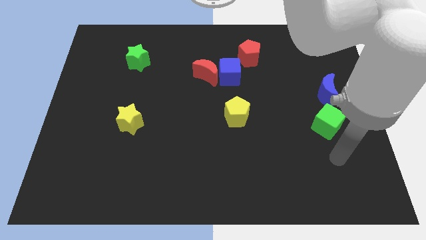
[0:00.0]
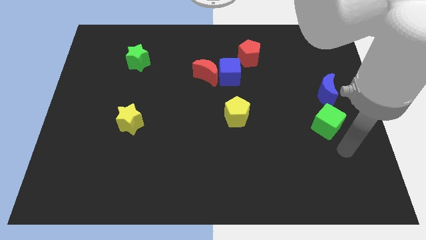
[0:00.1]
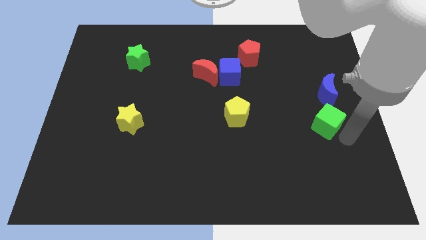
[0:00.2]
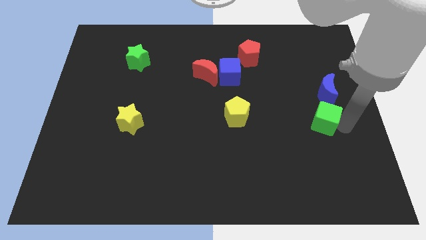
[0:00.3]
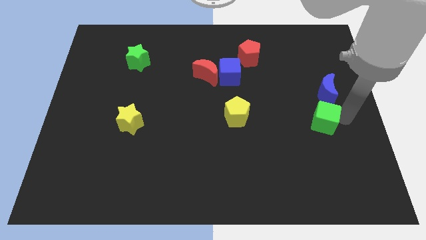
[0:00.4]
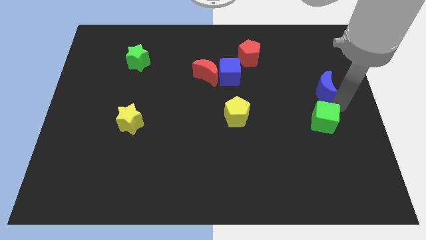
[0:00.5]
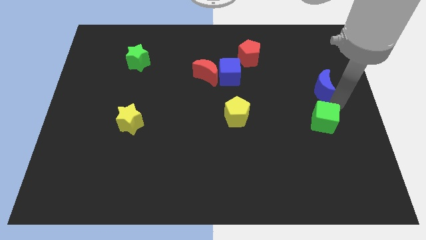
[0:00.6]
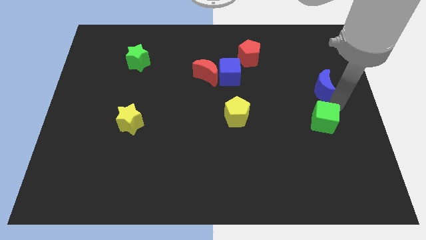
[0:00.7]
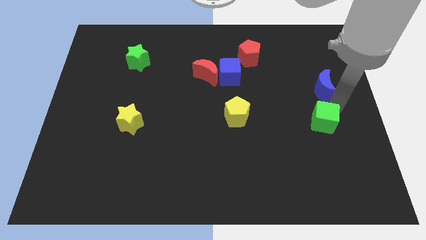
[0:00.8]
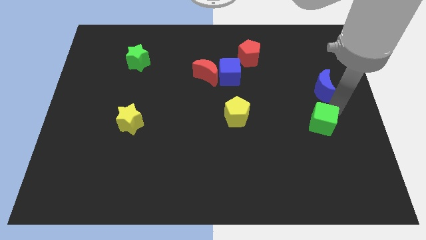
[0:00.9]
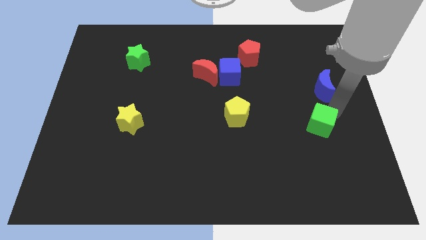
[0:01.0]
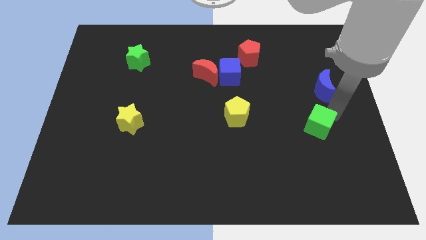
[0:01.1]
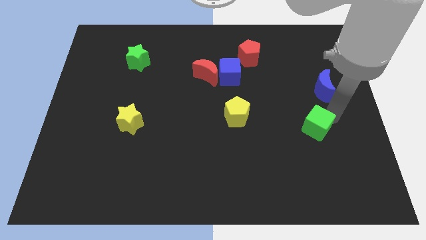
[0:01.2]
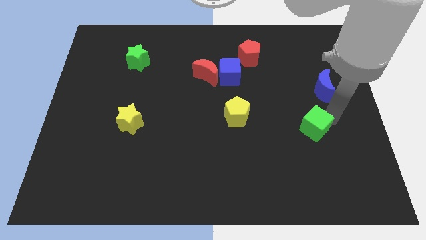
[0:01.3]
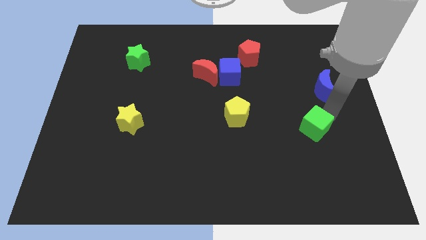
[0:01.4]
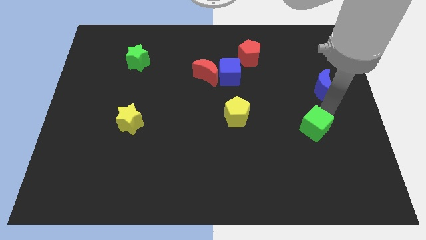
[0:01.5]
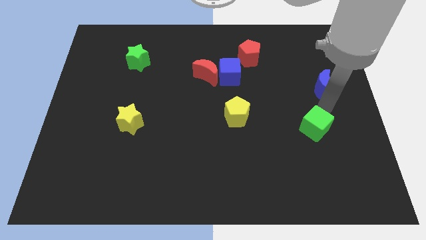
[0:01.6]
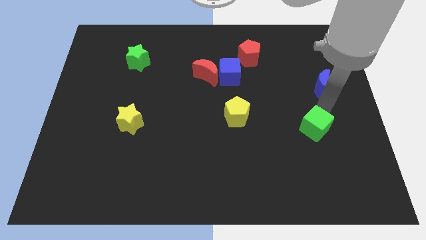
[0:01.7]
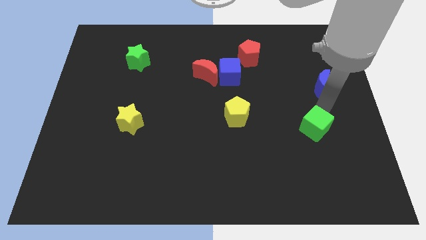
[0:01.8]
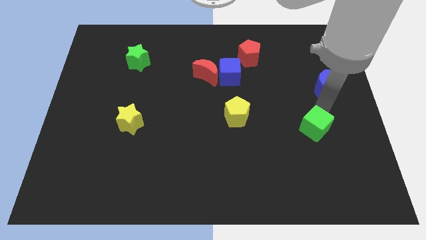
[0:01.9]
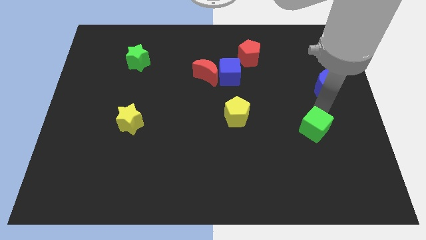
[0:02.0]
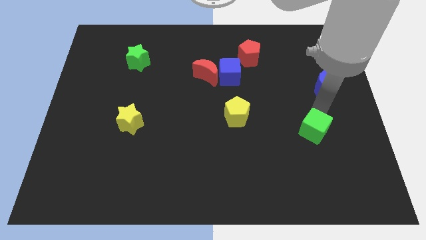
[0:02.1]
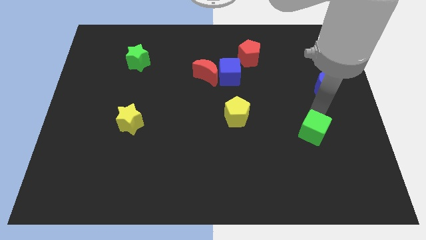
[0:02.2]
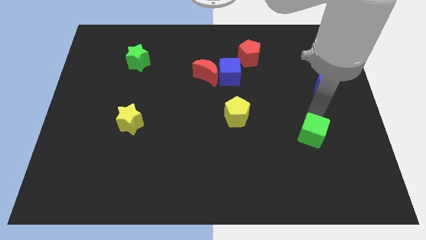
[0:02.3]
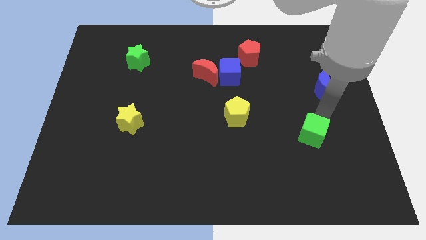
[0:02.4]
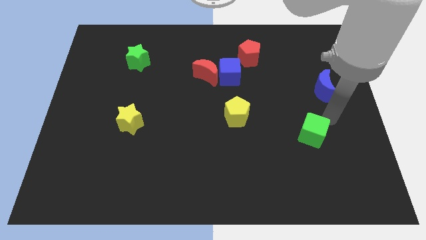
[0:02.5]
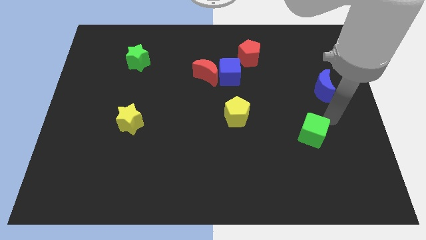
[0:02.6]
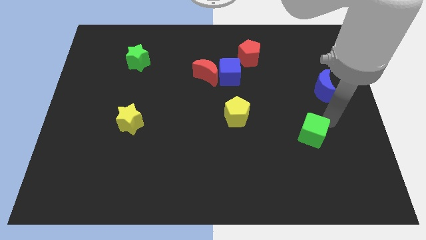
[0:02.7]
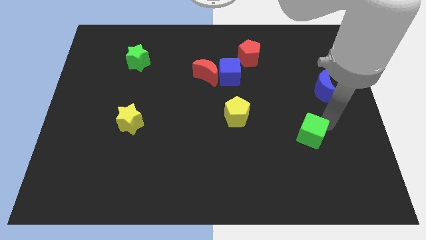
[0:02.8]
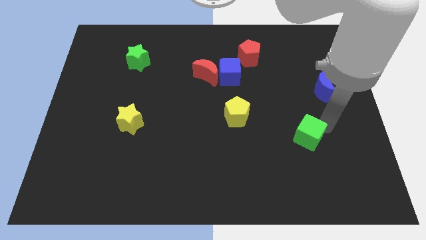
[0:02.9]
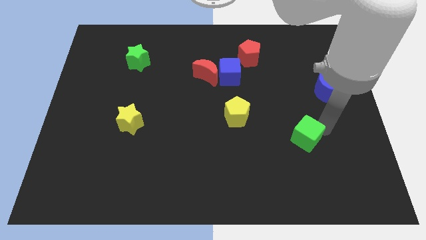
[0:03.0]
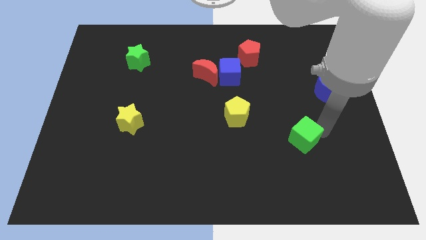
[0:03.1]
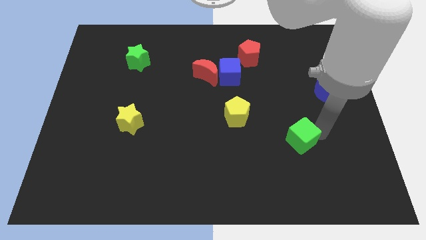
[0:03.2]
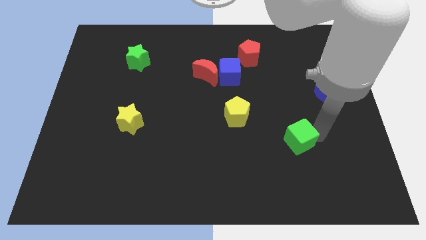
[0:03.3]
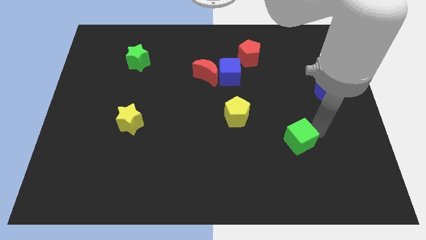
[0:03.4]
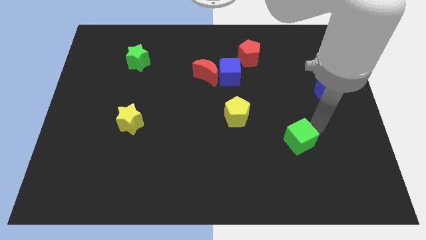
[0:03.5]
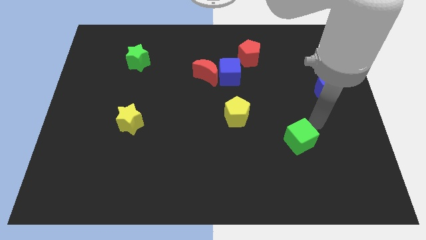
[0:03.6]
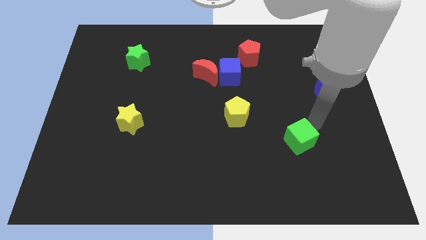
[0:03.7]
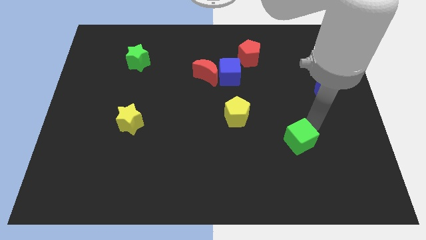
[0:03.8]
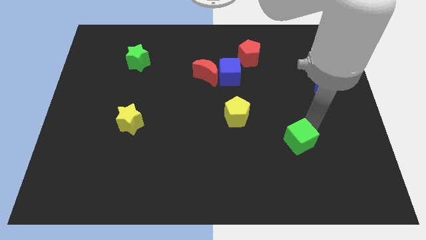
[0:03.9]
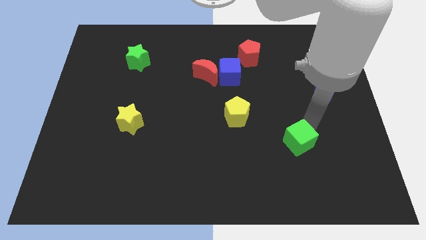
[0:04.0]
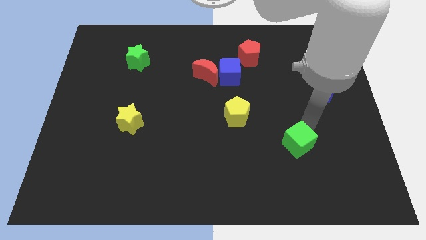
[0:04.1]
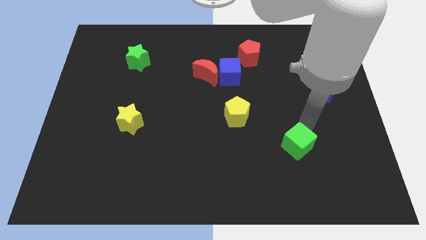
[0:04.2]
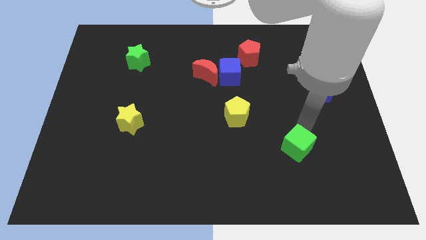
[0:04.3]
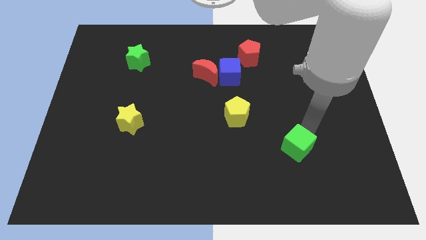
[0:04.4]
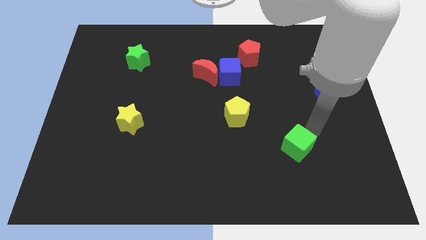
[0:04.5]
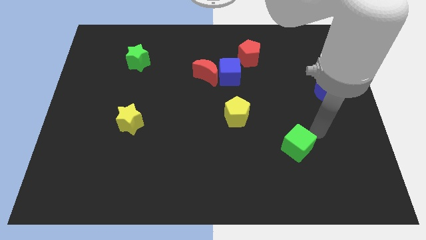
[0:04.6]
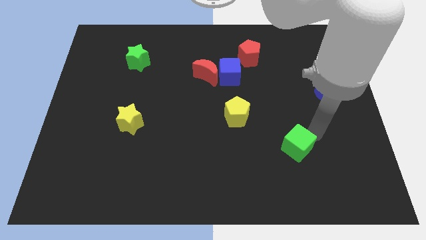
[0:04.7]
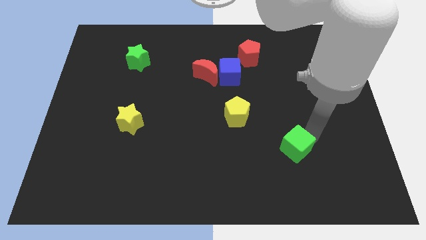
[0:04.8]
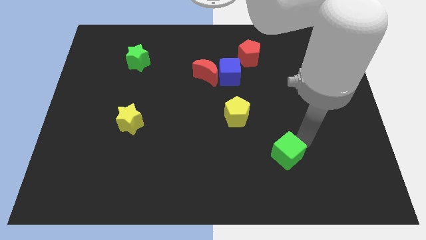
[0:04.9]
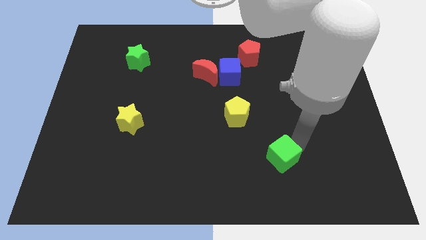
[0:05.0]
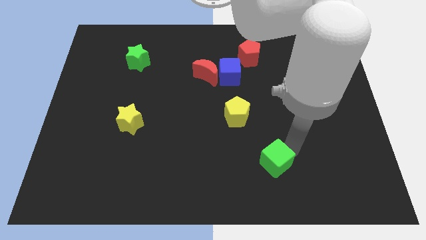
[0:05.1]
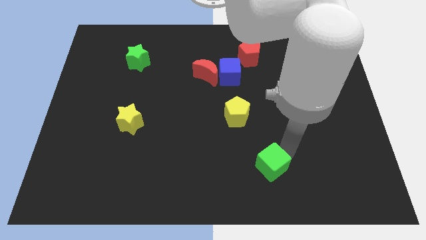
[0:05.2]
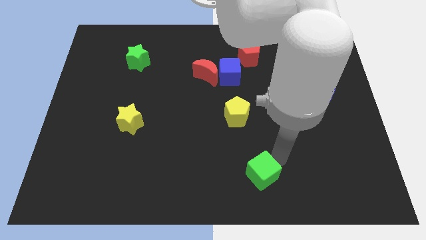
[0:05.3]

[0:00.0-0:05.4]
put the green cube to the bottom
